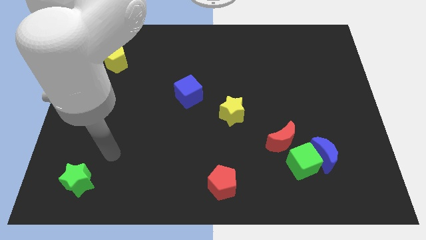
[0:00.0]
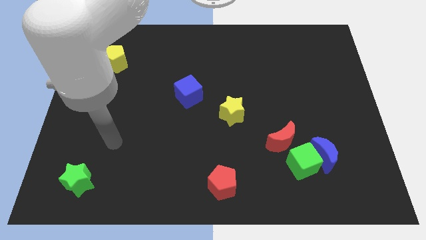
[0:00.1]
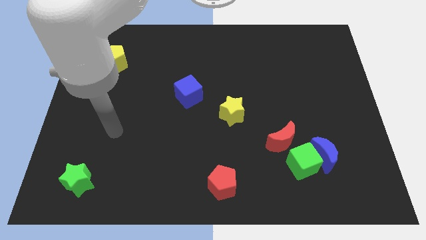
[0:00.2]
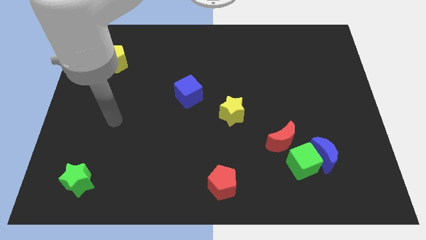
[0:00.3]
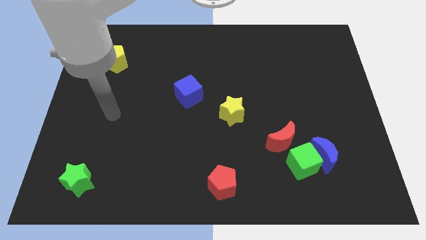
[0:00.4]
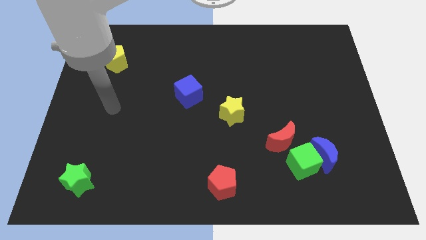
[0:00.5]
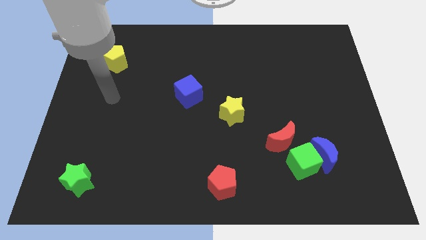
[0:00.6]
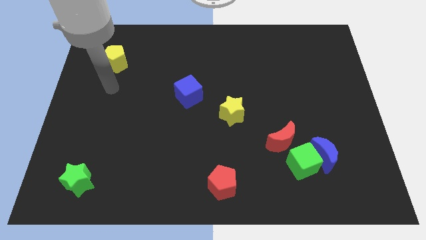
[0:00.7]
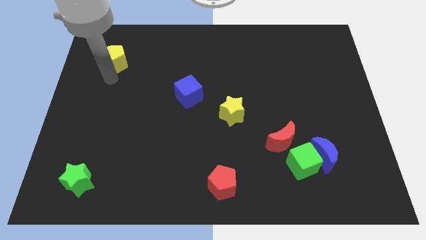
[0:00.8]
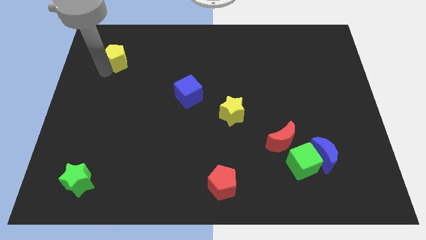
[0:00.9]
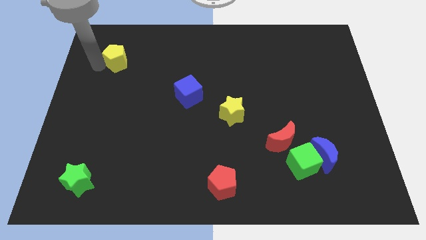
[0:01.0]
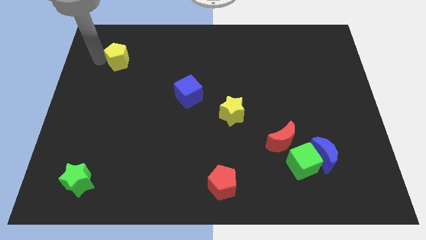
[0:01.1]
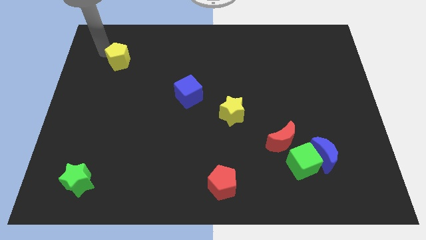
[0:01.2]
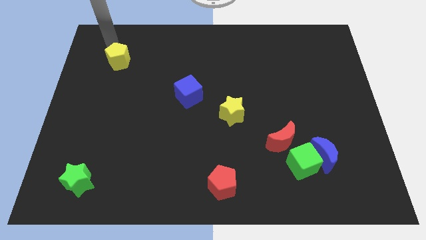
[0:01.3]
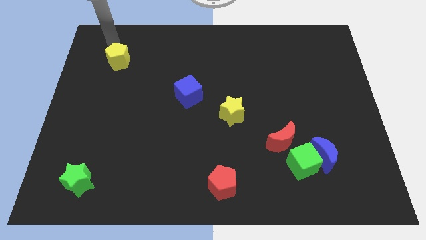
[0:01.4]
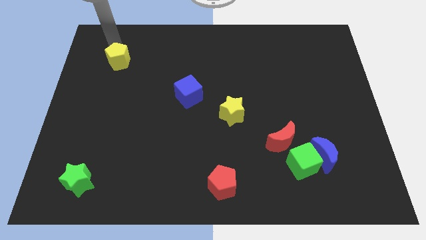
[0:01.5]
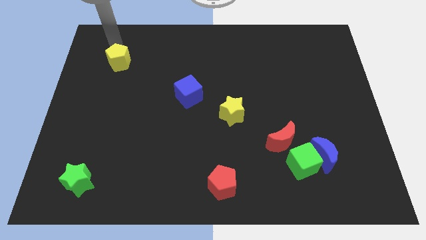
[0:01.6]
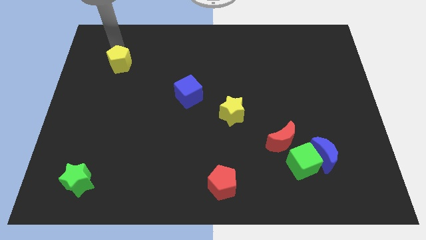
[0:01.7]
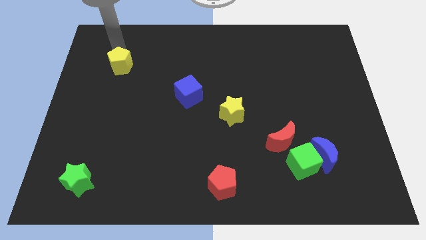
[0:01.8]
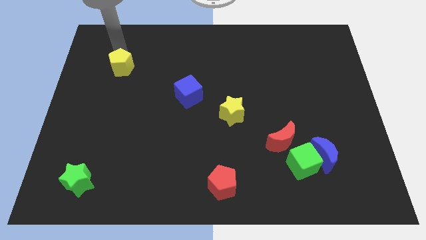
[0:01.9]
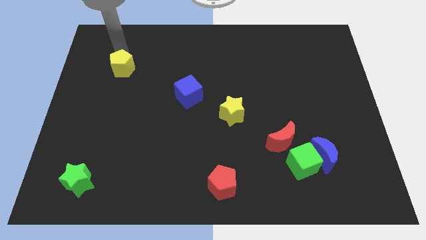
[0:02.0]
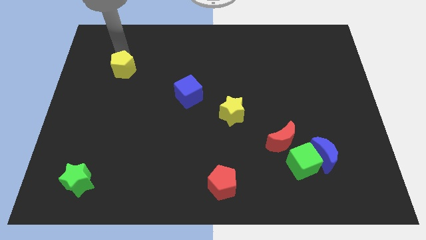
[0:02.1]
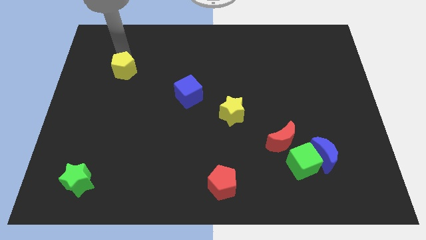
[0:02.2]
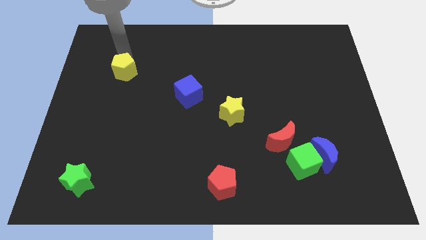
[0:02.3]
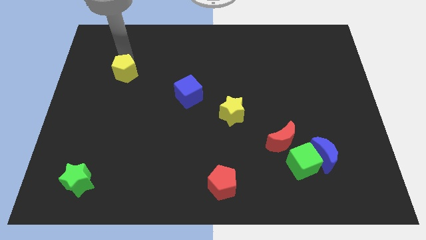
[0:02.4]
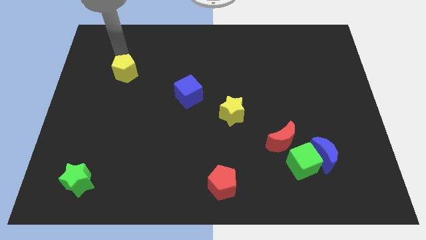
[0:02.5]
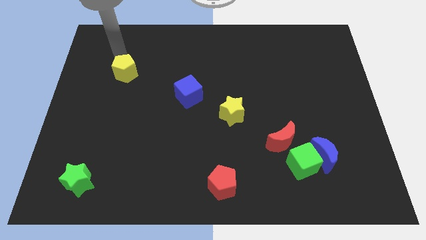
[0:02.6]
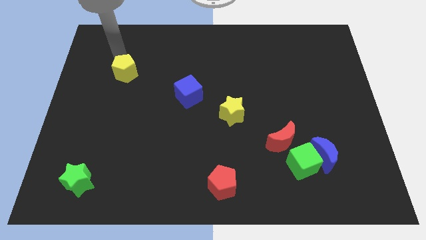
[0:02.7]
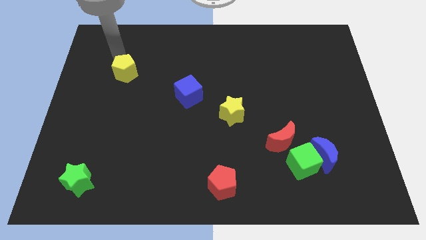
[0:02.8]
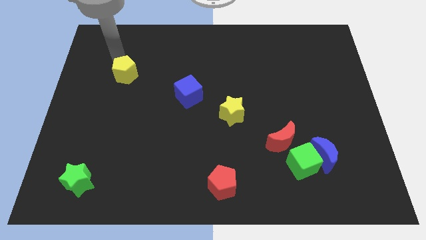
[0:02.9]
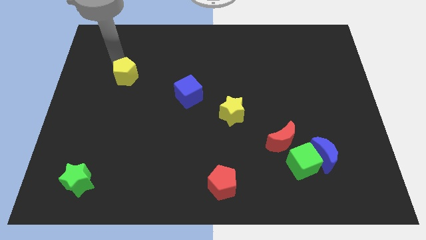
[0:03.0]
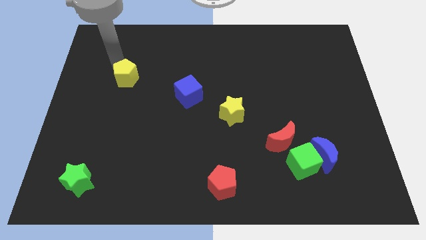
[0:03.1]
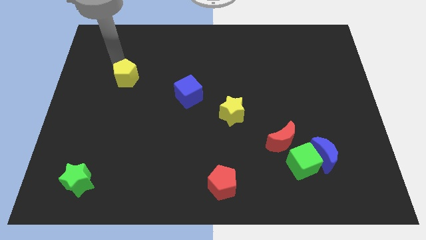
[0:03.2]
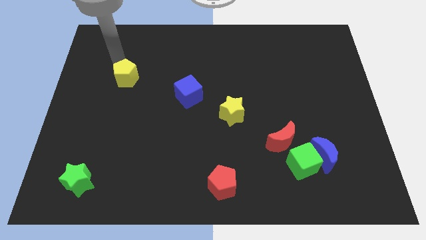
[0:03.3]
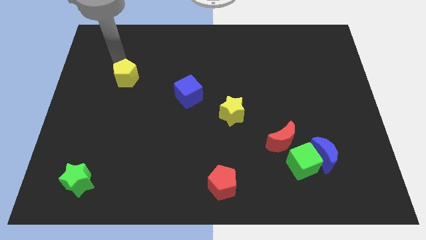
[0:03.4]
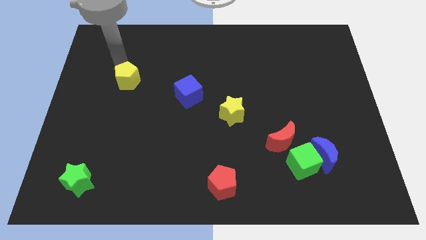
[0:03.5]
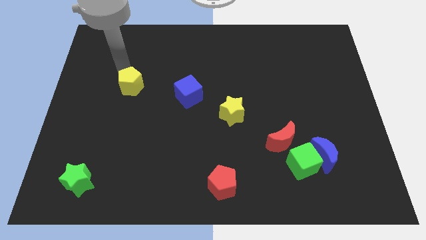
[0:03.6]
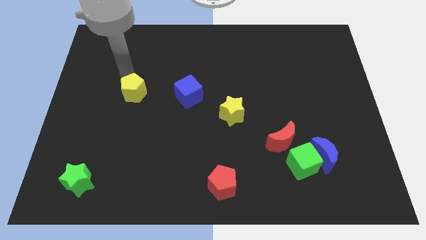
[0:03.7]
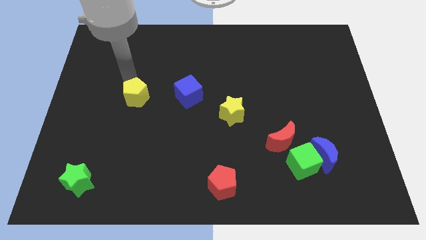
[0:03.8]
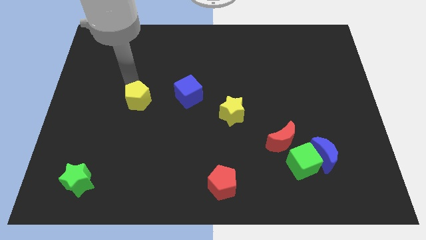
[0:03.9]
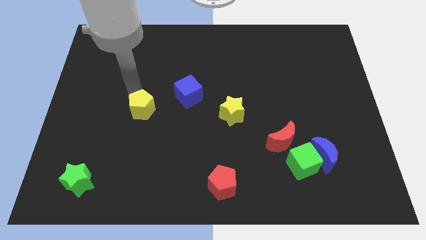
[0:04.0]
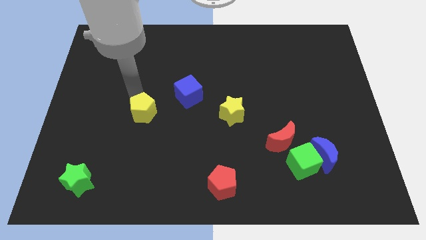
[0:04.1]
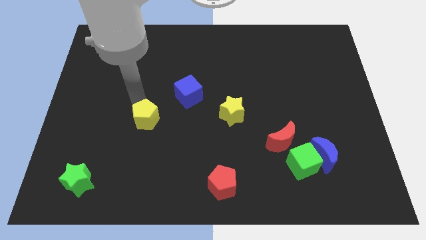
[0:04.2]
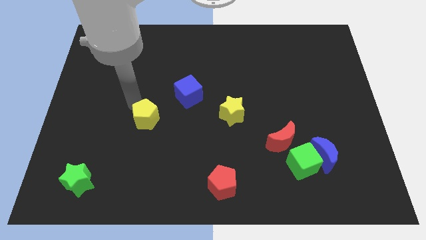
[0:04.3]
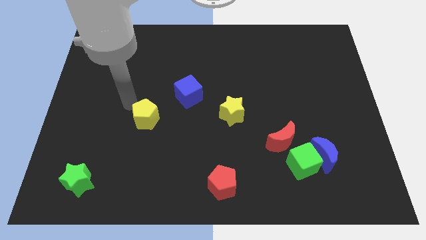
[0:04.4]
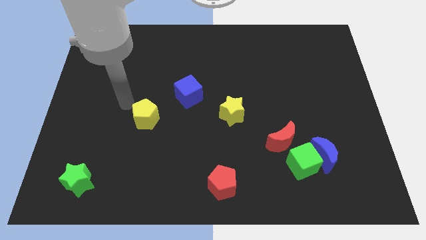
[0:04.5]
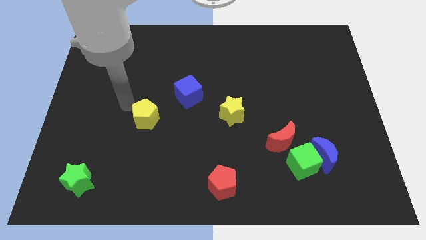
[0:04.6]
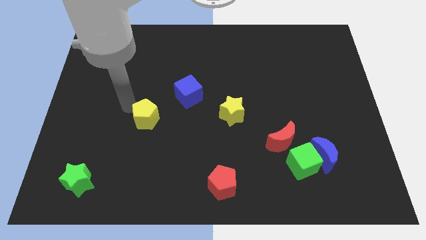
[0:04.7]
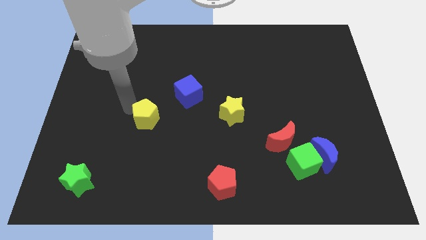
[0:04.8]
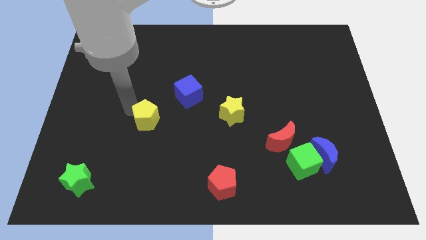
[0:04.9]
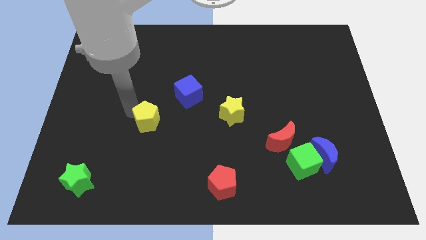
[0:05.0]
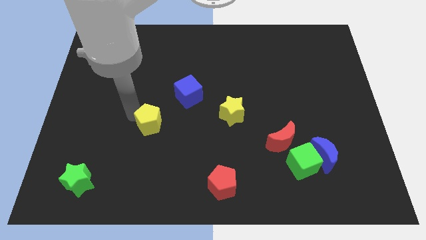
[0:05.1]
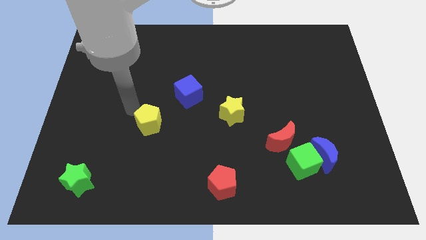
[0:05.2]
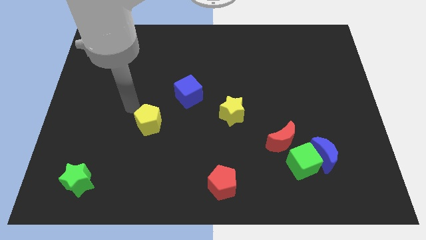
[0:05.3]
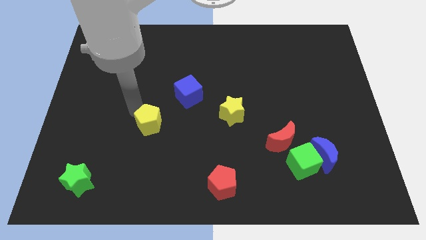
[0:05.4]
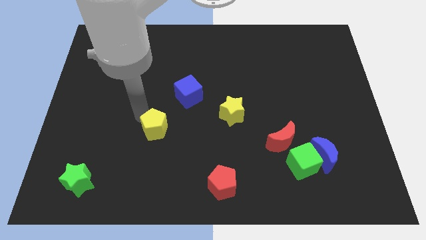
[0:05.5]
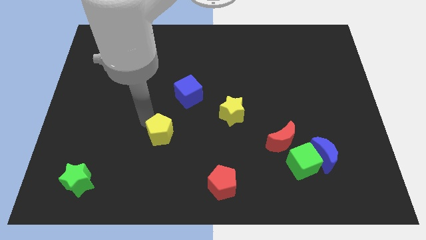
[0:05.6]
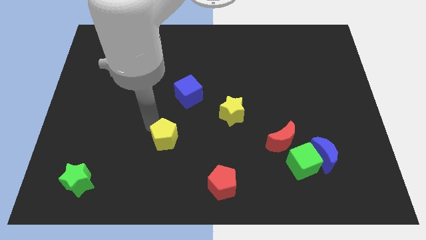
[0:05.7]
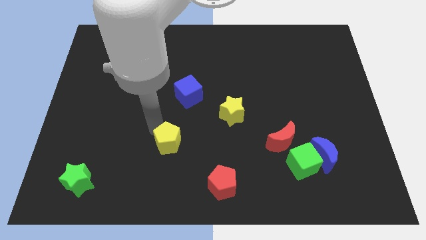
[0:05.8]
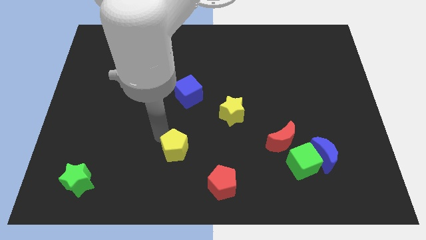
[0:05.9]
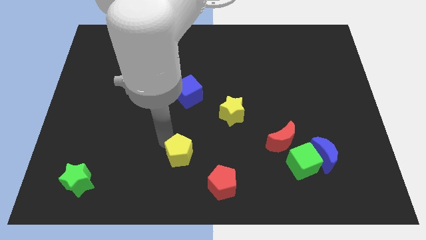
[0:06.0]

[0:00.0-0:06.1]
put the yellow pentagon to the top left side of the red pentagon

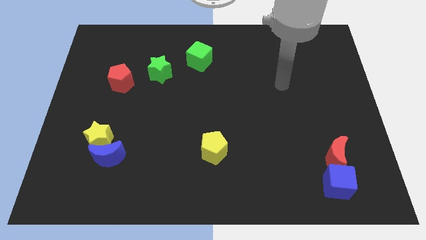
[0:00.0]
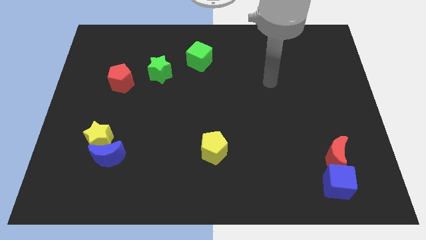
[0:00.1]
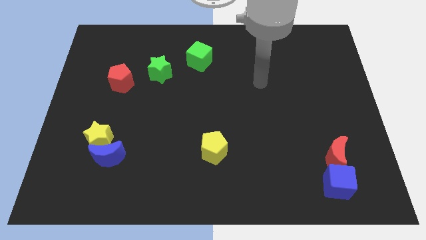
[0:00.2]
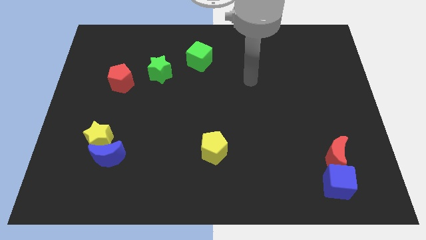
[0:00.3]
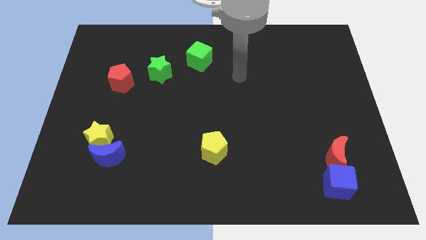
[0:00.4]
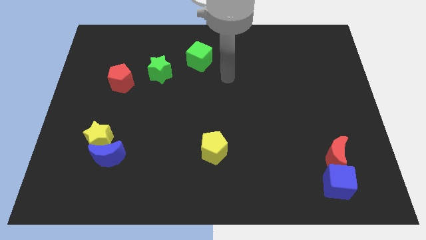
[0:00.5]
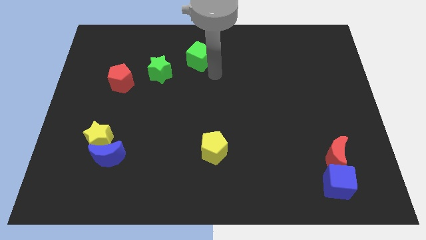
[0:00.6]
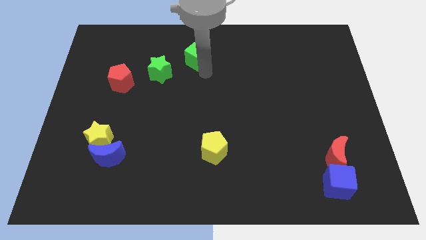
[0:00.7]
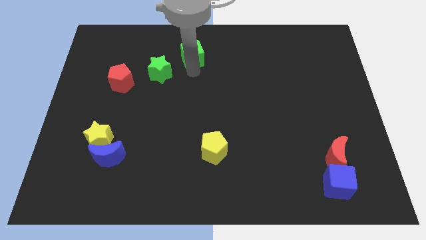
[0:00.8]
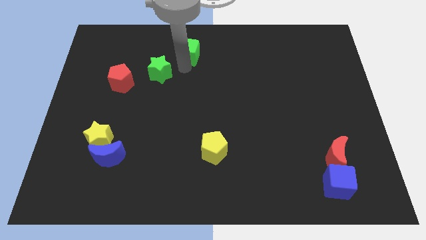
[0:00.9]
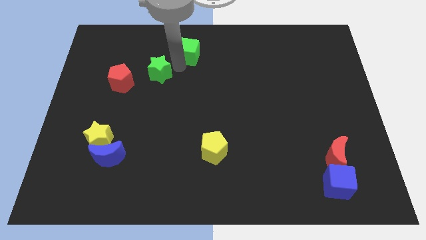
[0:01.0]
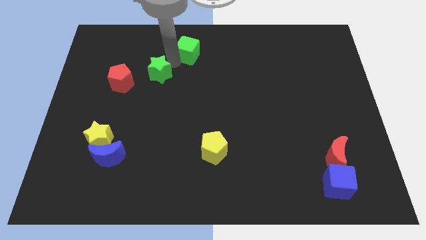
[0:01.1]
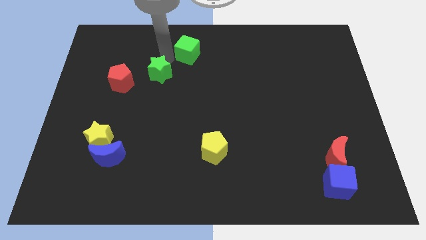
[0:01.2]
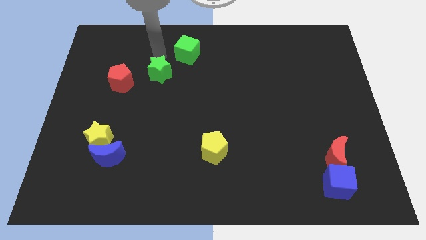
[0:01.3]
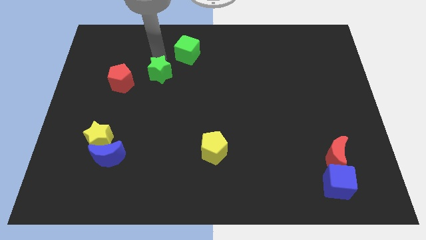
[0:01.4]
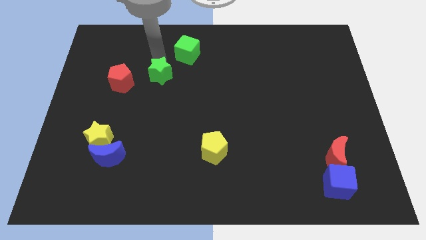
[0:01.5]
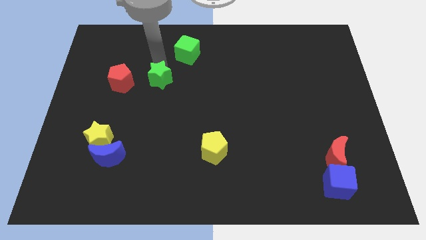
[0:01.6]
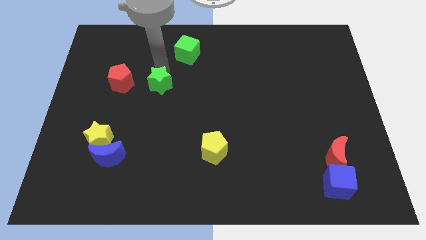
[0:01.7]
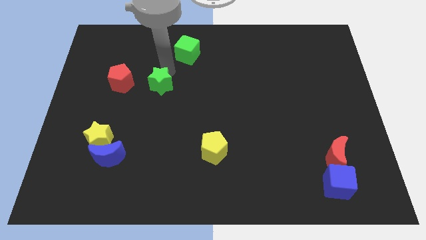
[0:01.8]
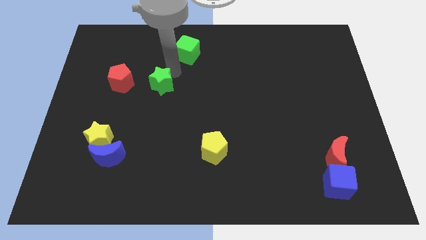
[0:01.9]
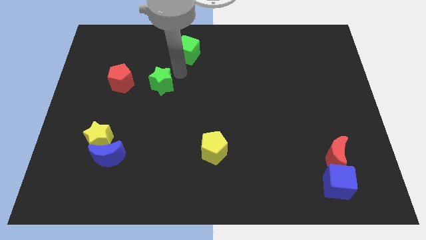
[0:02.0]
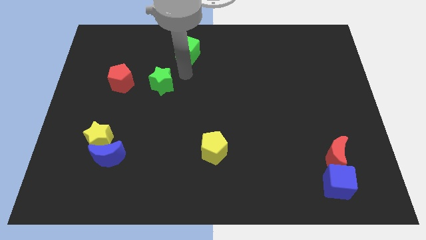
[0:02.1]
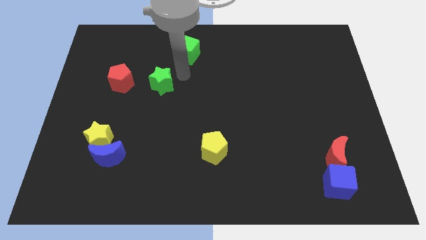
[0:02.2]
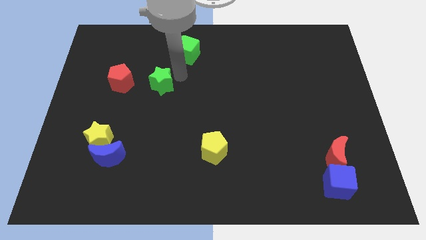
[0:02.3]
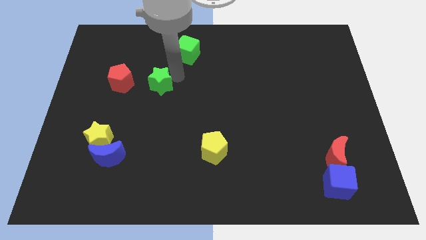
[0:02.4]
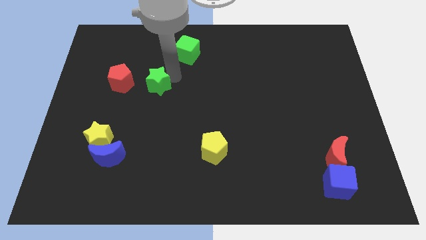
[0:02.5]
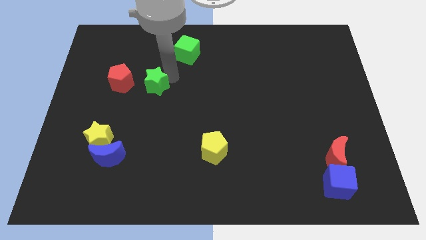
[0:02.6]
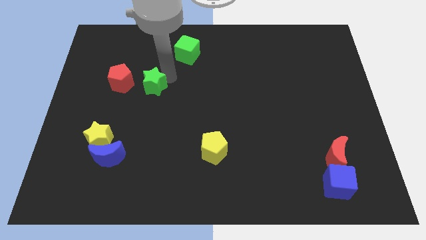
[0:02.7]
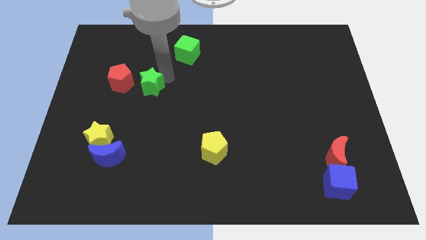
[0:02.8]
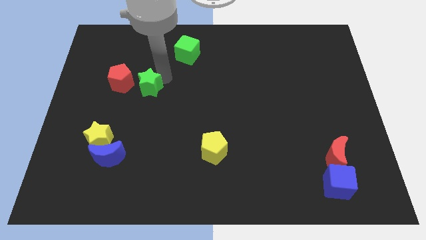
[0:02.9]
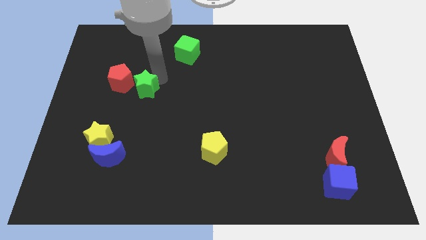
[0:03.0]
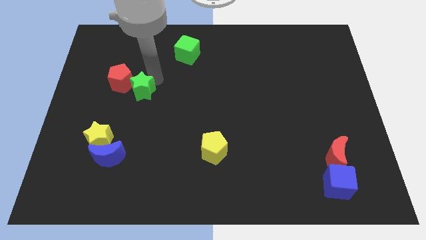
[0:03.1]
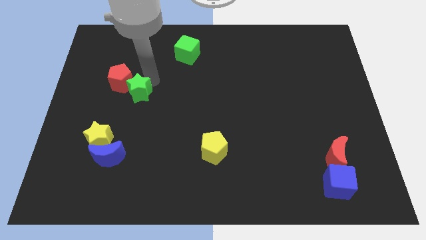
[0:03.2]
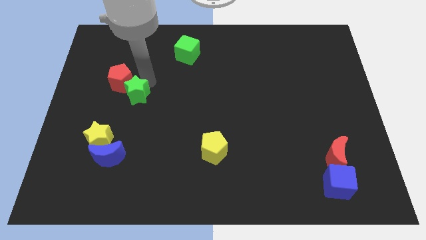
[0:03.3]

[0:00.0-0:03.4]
put the green star below the red pentagon
